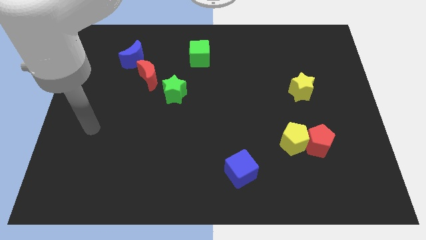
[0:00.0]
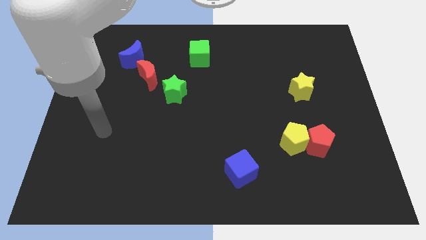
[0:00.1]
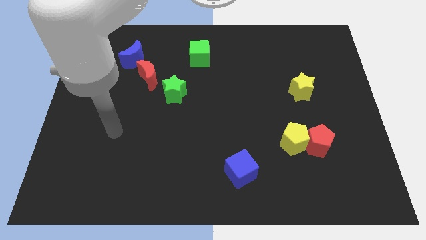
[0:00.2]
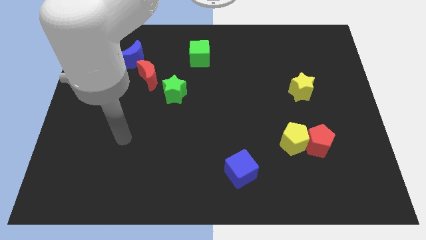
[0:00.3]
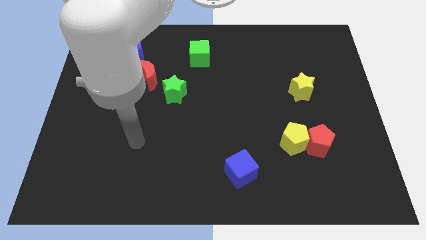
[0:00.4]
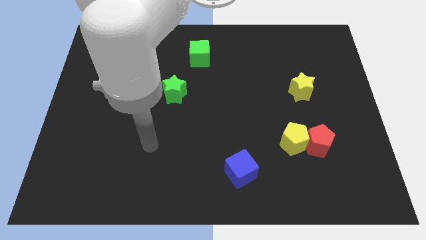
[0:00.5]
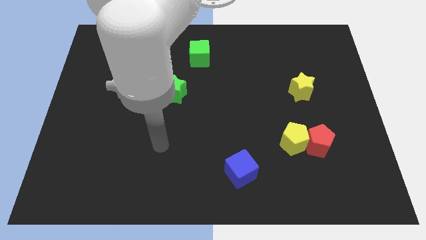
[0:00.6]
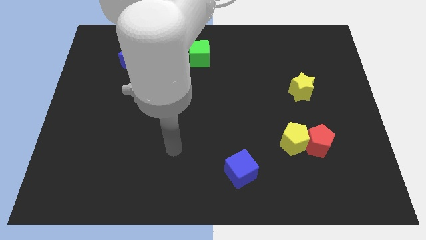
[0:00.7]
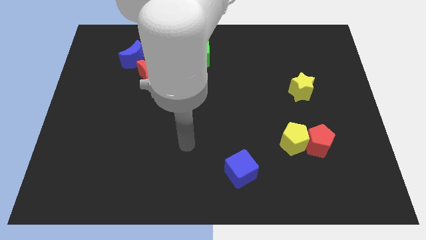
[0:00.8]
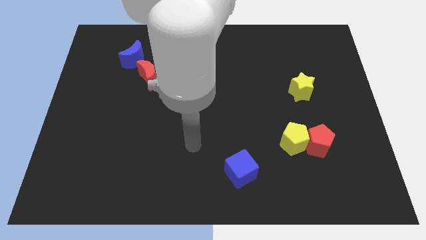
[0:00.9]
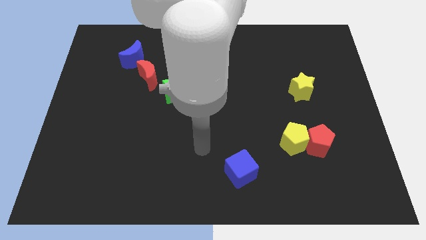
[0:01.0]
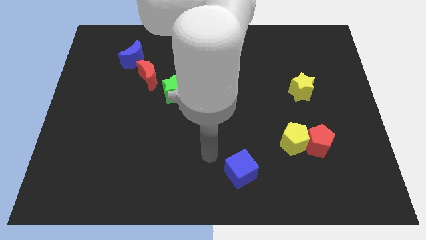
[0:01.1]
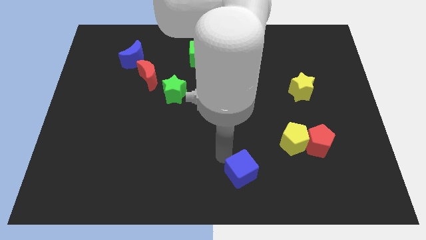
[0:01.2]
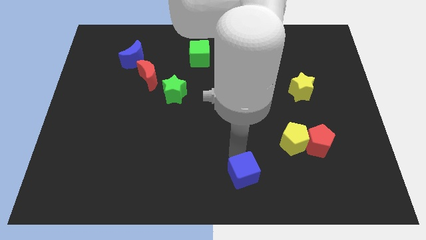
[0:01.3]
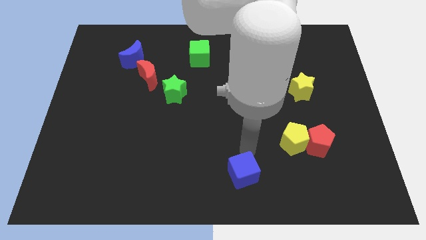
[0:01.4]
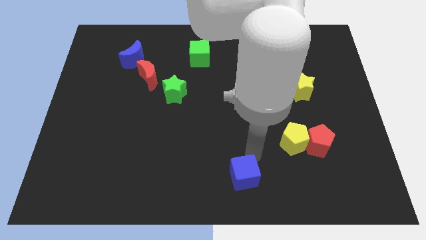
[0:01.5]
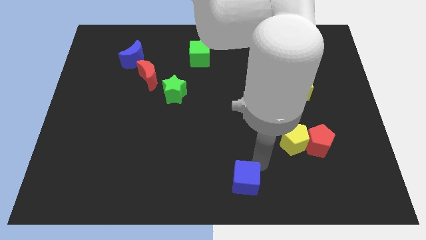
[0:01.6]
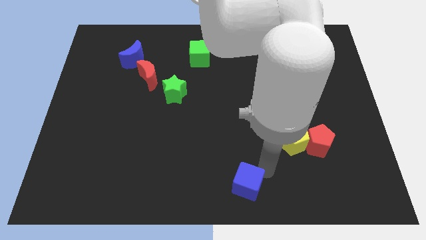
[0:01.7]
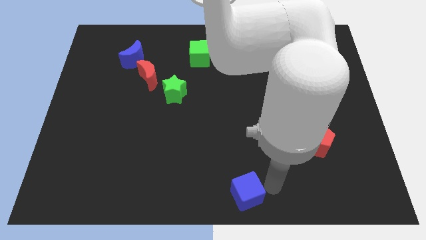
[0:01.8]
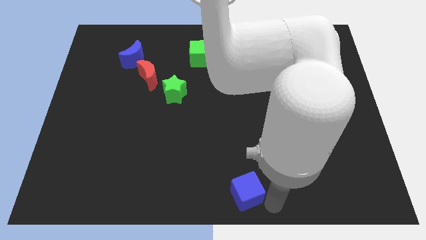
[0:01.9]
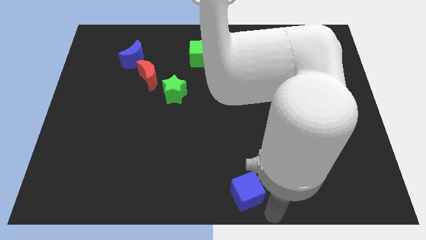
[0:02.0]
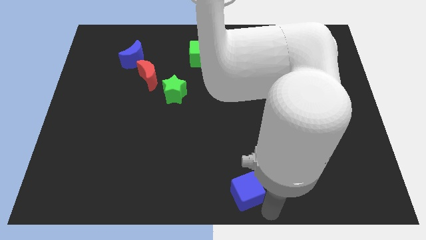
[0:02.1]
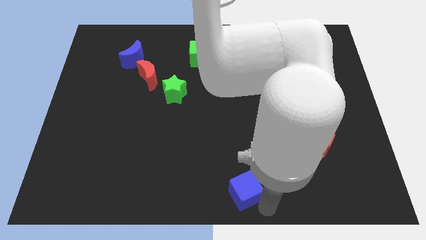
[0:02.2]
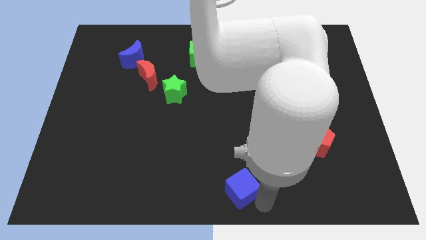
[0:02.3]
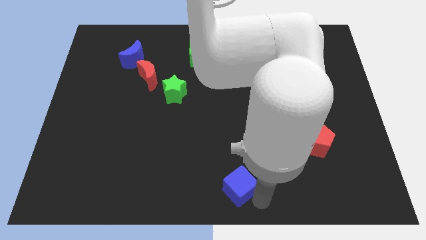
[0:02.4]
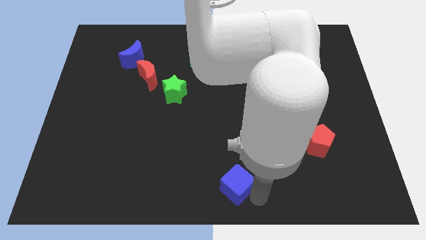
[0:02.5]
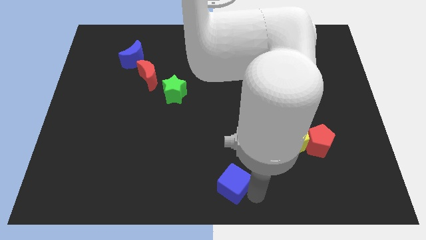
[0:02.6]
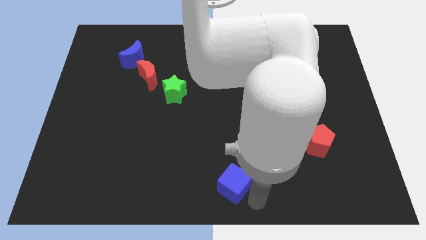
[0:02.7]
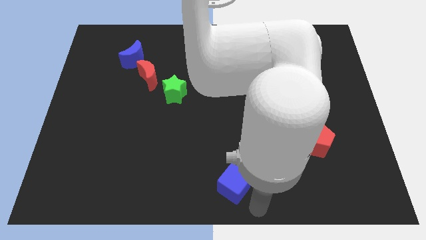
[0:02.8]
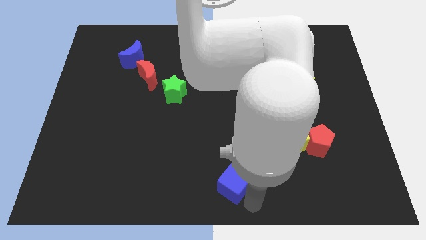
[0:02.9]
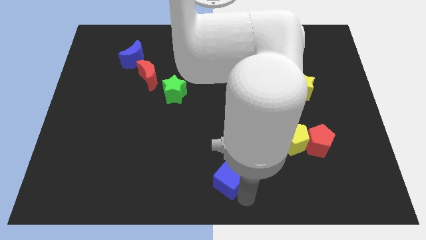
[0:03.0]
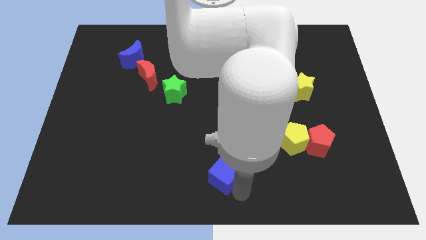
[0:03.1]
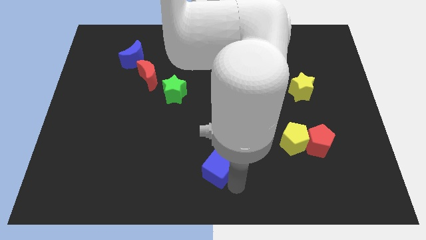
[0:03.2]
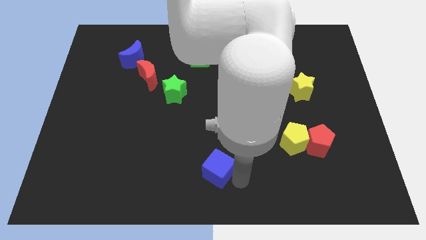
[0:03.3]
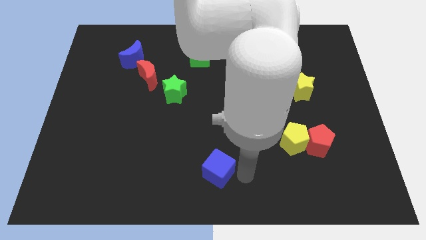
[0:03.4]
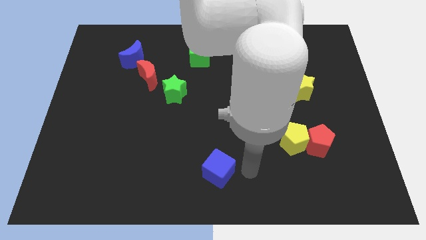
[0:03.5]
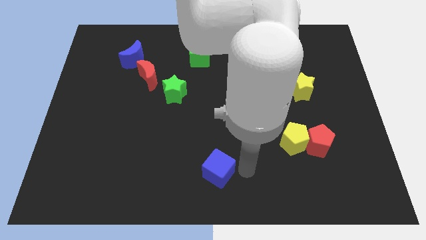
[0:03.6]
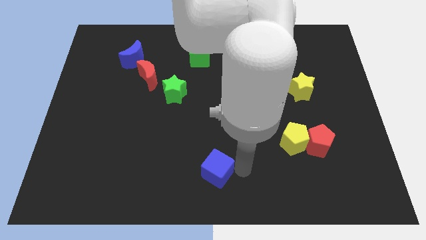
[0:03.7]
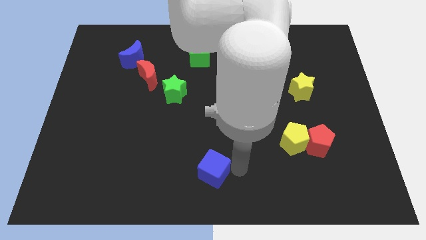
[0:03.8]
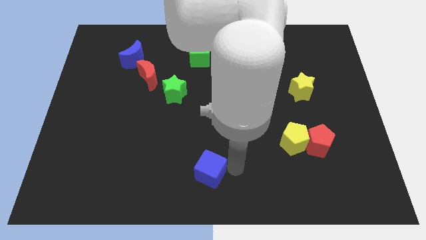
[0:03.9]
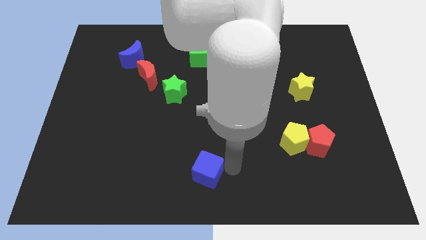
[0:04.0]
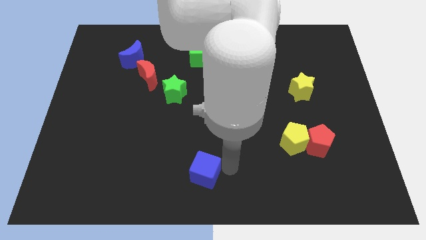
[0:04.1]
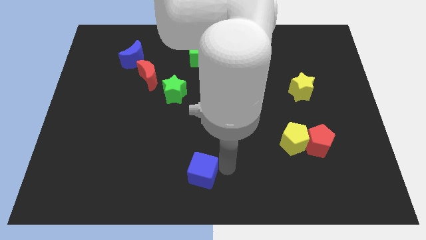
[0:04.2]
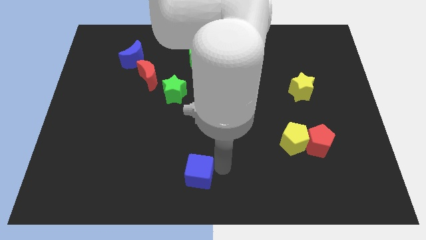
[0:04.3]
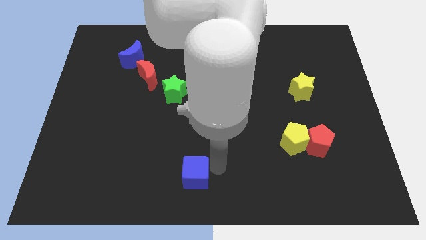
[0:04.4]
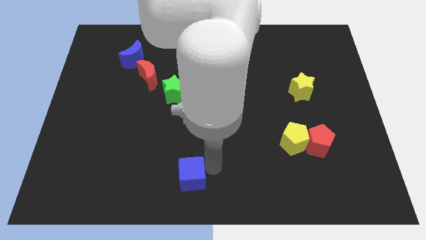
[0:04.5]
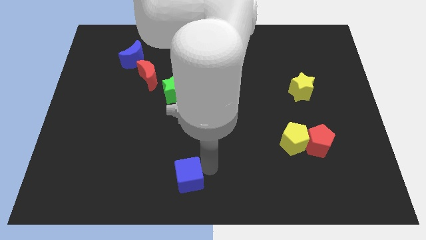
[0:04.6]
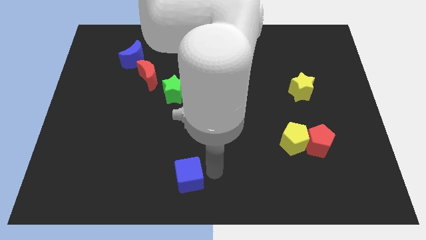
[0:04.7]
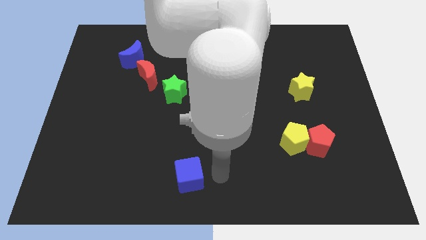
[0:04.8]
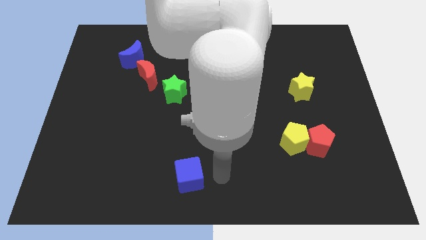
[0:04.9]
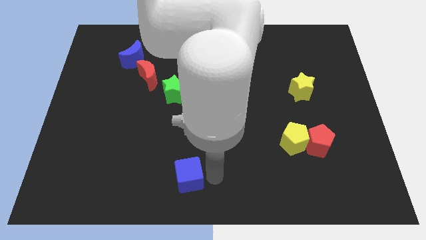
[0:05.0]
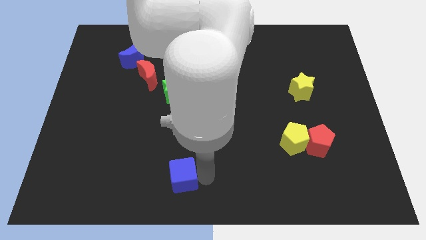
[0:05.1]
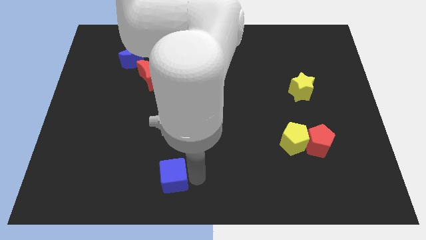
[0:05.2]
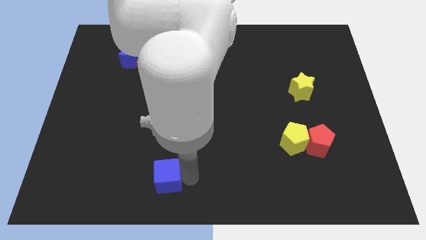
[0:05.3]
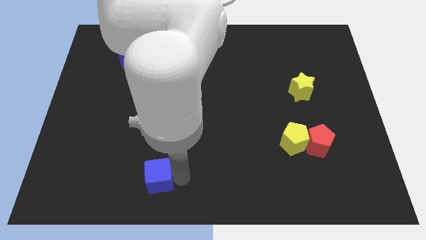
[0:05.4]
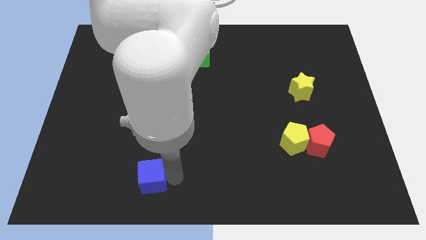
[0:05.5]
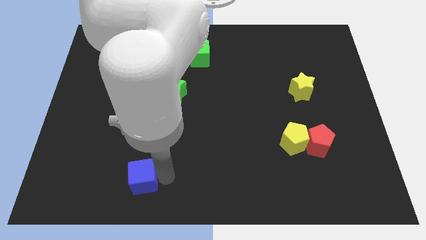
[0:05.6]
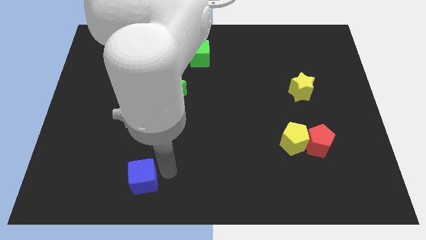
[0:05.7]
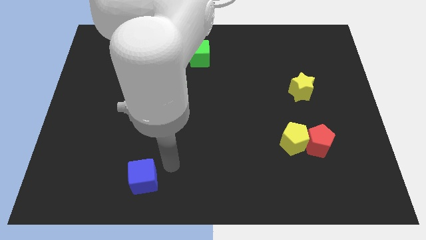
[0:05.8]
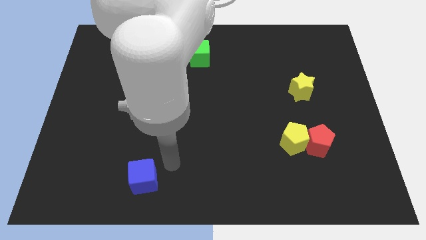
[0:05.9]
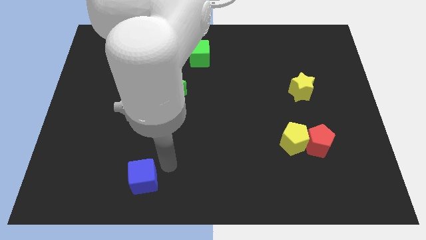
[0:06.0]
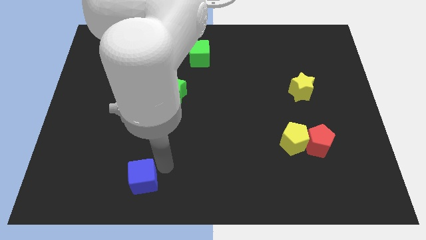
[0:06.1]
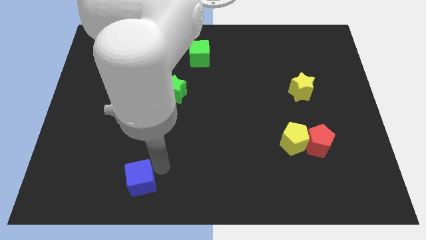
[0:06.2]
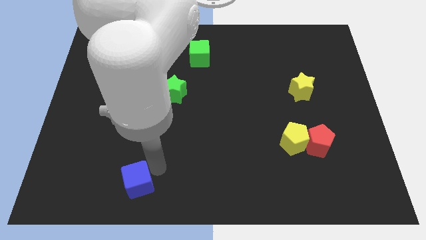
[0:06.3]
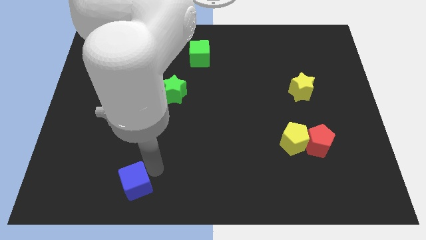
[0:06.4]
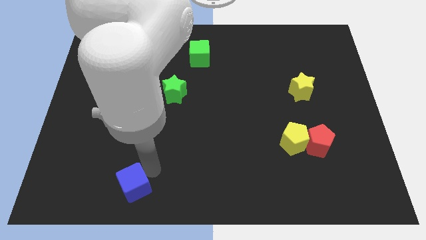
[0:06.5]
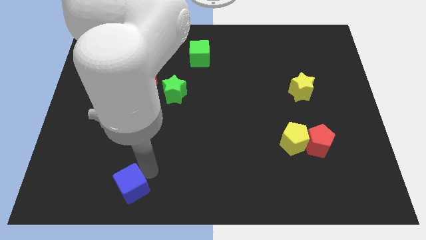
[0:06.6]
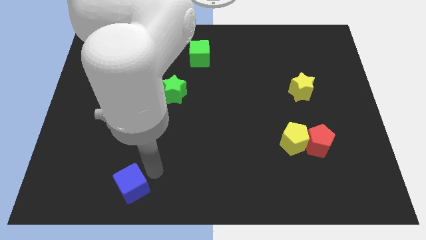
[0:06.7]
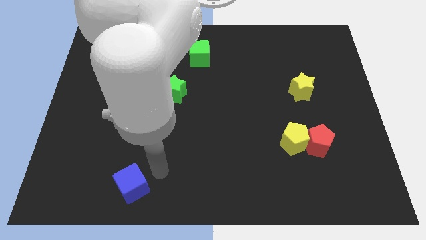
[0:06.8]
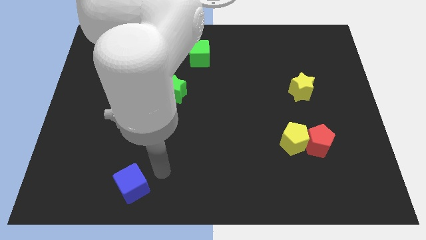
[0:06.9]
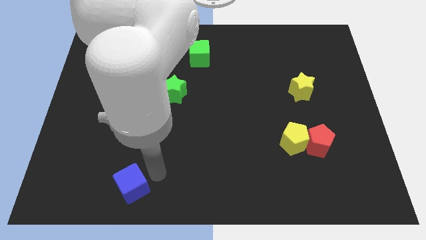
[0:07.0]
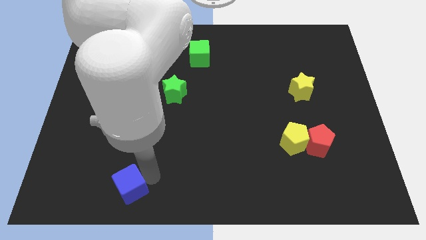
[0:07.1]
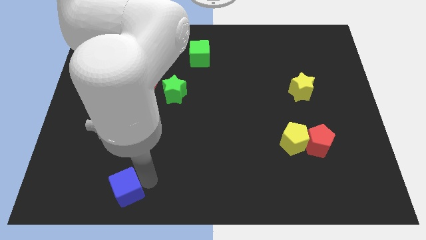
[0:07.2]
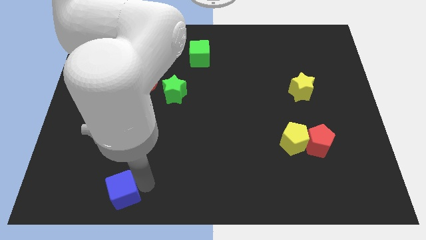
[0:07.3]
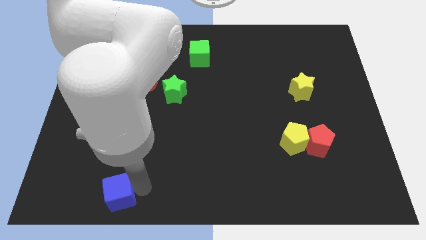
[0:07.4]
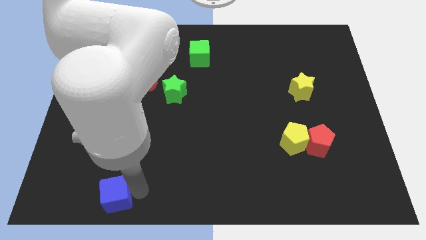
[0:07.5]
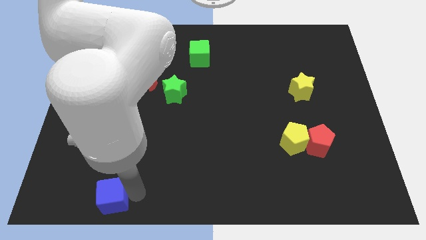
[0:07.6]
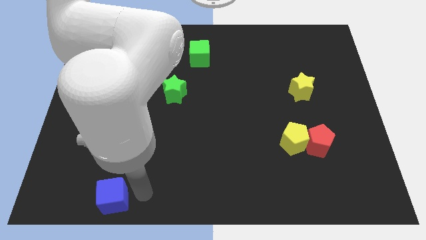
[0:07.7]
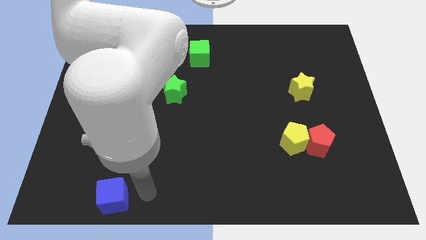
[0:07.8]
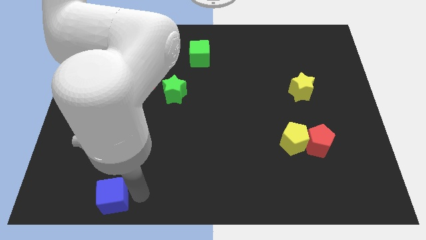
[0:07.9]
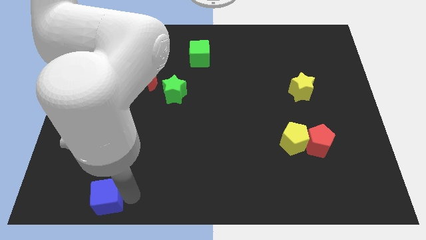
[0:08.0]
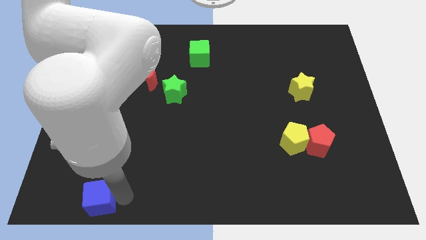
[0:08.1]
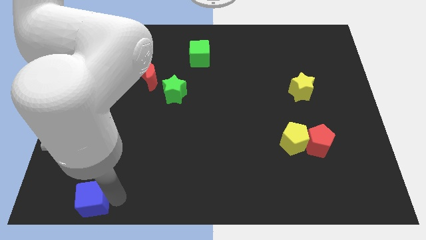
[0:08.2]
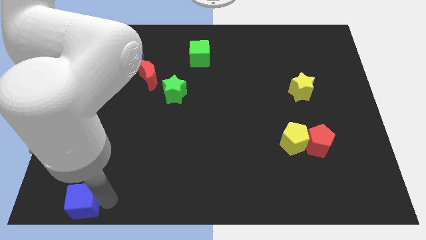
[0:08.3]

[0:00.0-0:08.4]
put the blue cube to the lower left corner
